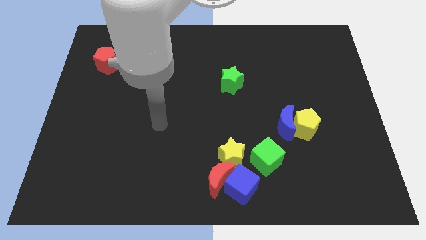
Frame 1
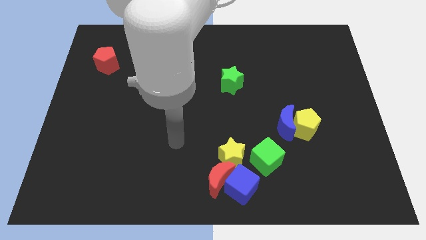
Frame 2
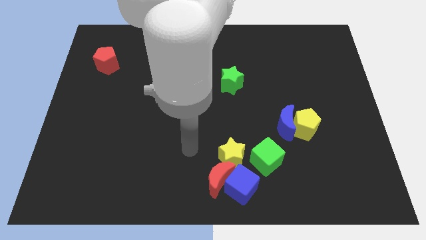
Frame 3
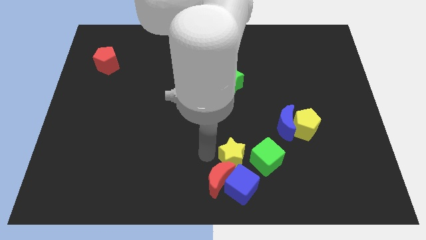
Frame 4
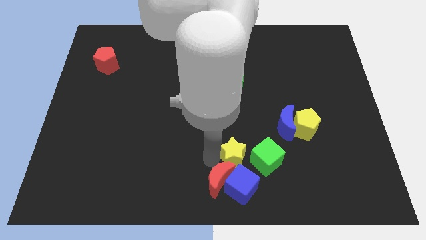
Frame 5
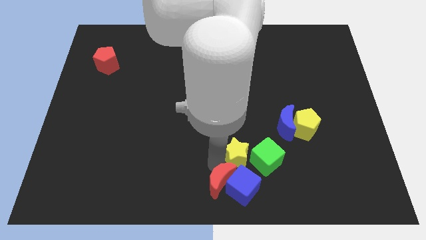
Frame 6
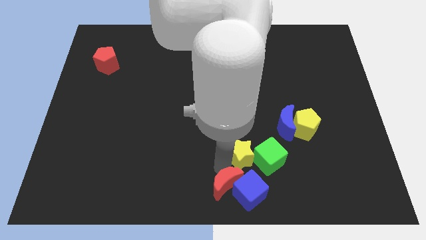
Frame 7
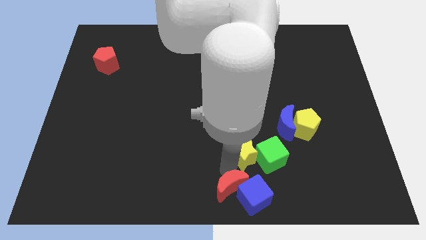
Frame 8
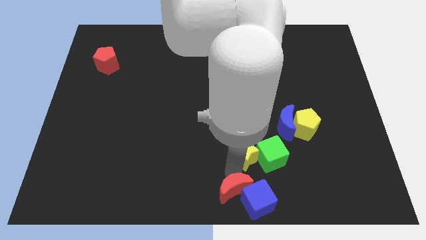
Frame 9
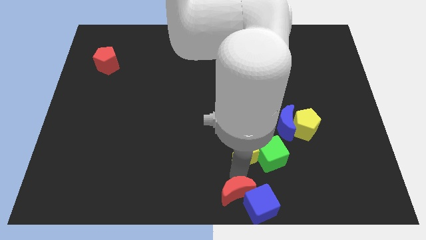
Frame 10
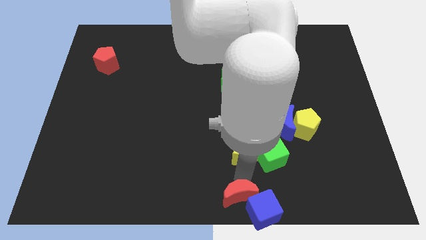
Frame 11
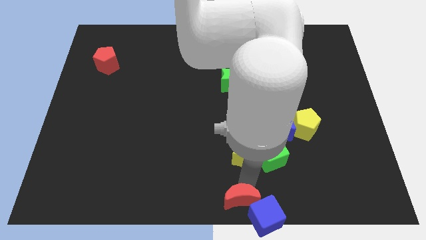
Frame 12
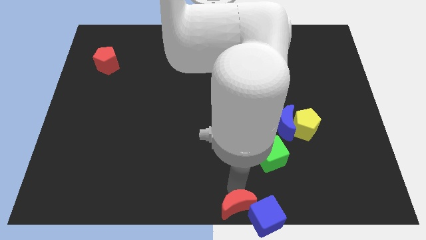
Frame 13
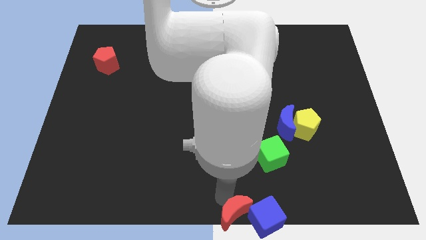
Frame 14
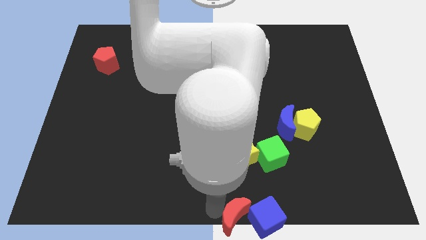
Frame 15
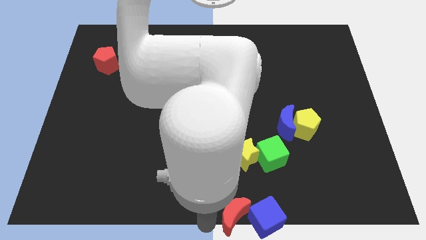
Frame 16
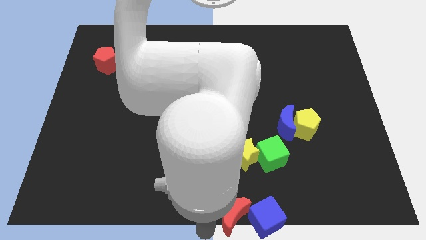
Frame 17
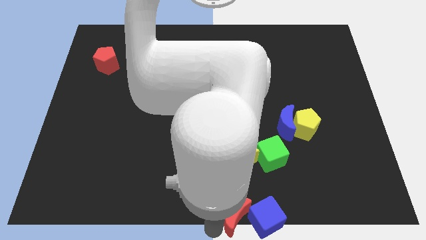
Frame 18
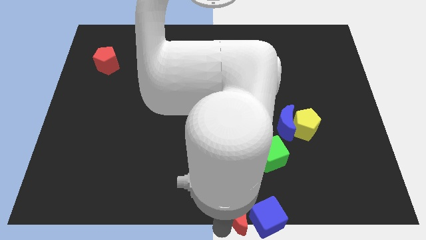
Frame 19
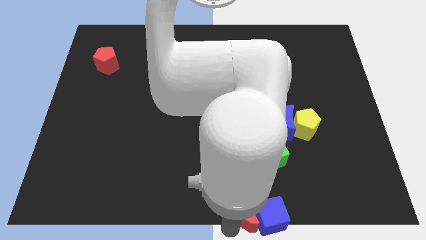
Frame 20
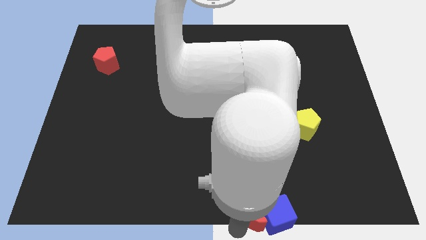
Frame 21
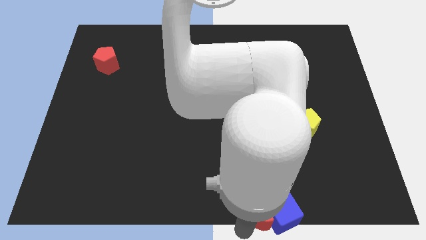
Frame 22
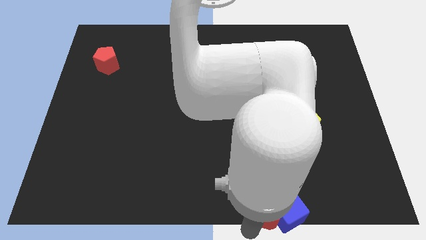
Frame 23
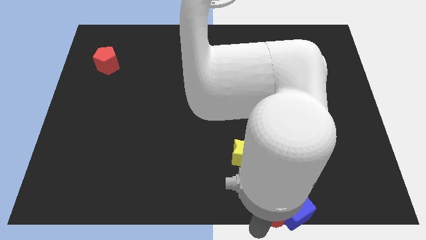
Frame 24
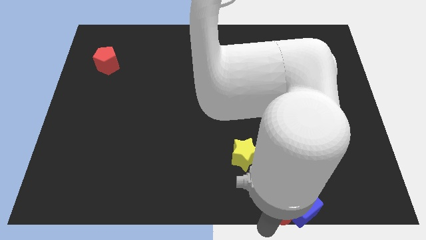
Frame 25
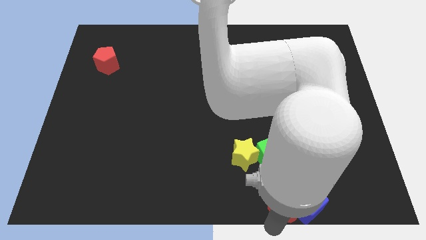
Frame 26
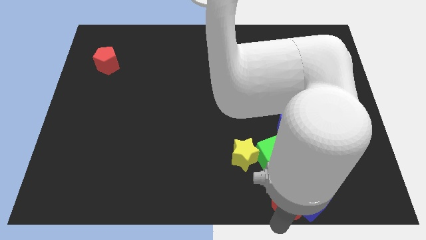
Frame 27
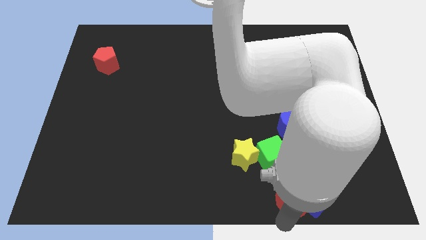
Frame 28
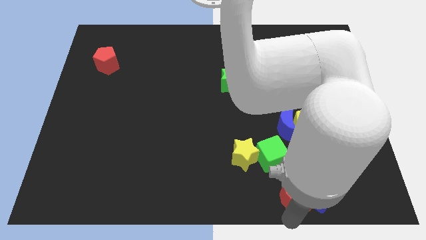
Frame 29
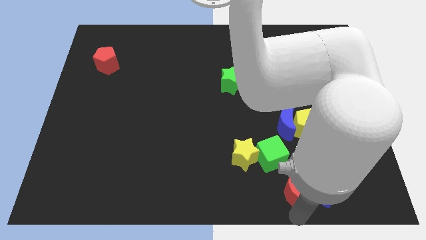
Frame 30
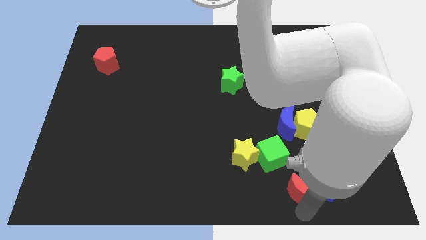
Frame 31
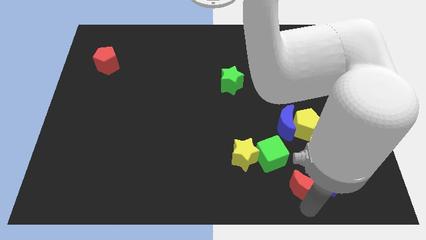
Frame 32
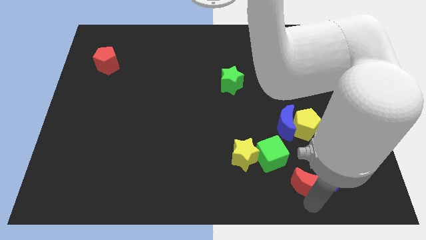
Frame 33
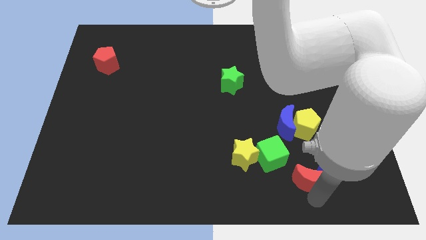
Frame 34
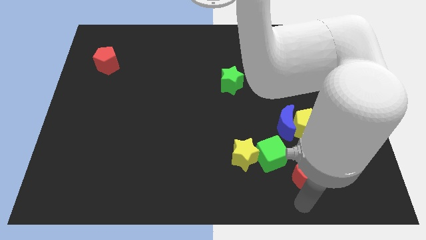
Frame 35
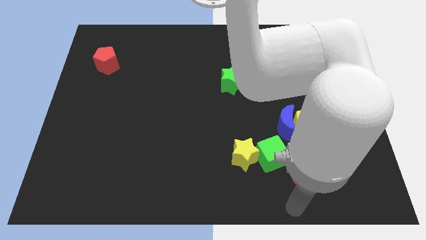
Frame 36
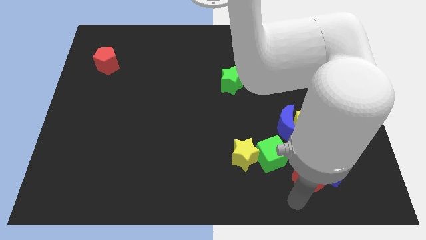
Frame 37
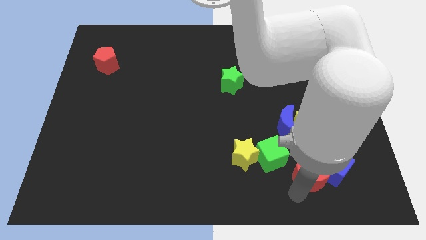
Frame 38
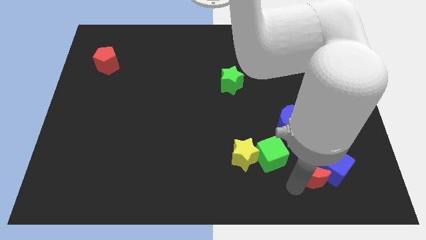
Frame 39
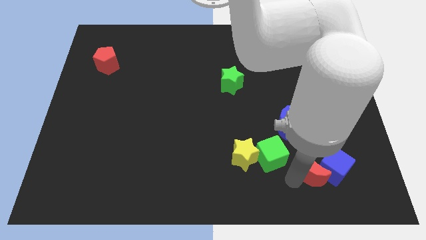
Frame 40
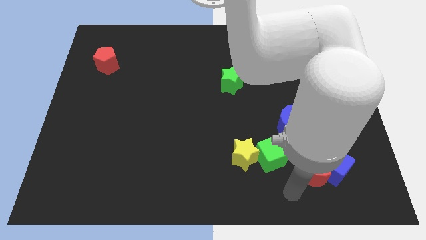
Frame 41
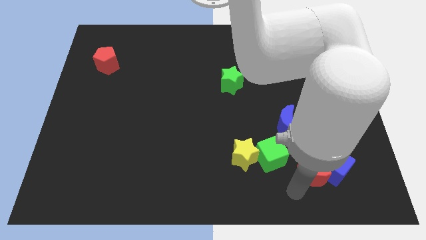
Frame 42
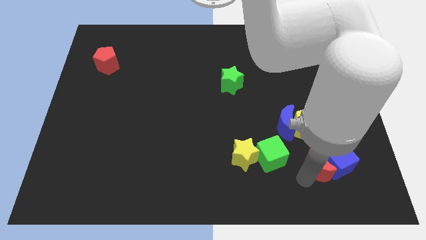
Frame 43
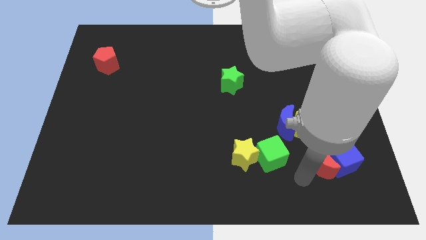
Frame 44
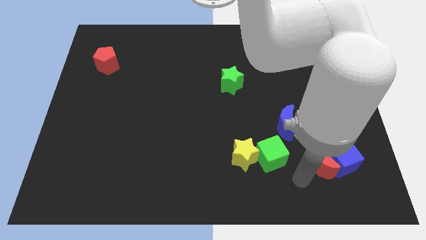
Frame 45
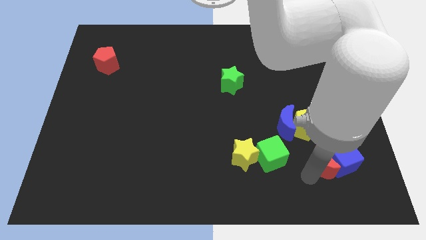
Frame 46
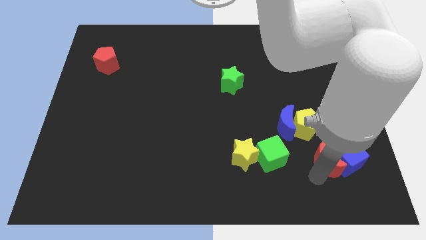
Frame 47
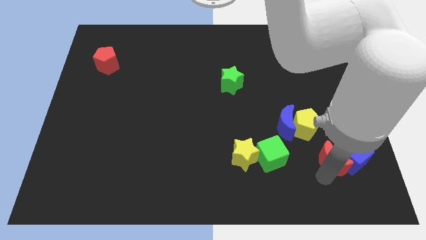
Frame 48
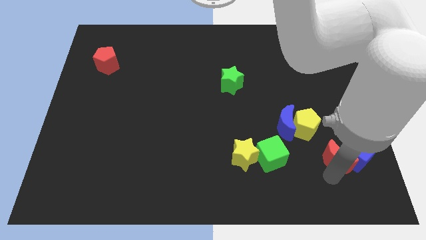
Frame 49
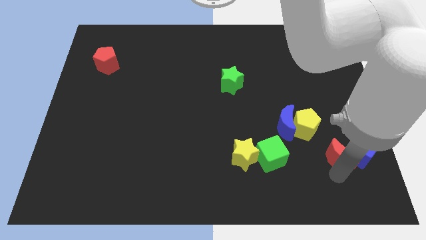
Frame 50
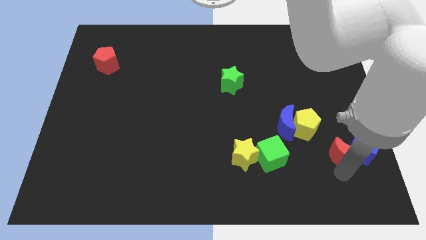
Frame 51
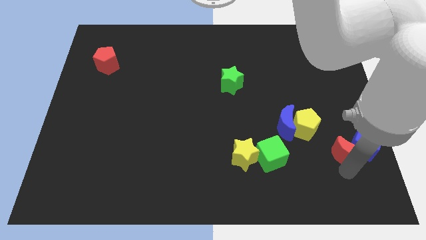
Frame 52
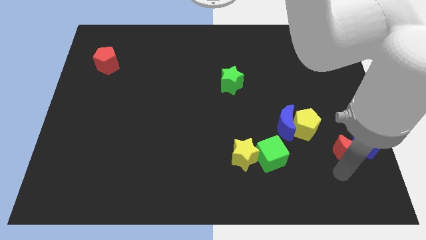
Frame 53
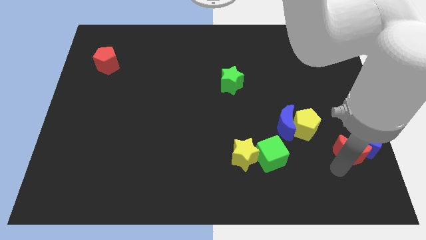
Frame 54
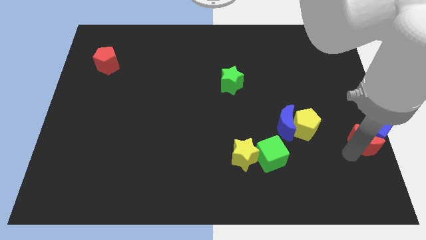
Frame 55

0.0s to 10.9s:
put the red moon to the right side

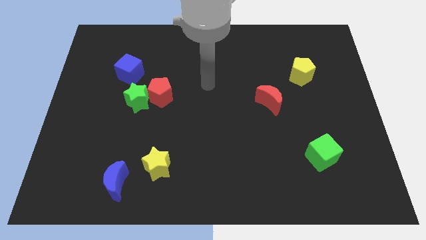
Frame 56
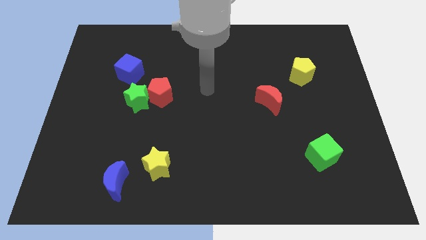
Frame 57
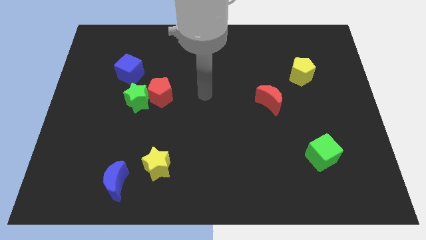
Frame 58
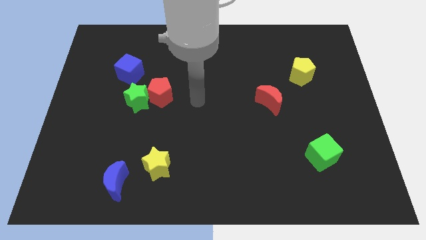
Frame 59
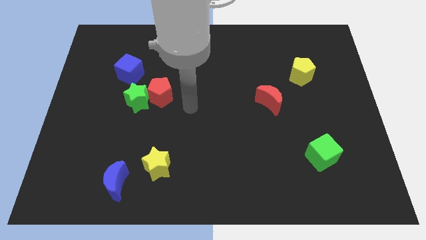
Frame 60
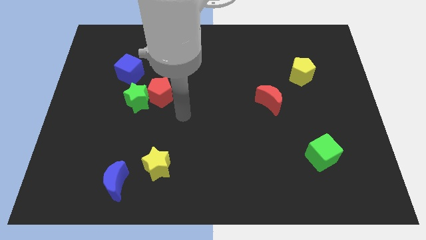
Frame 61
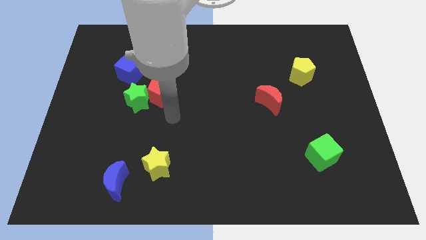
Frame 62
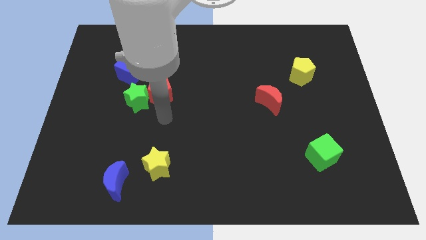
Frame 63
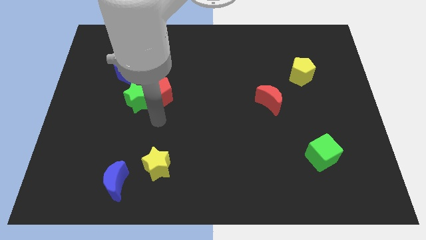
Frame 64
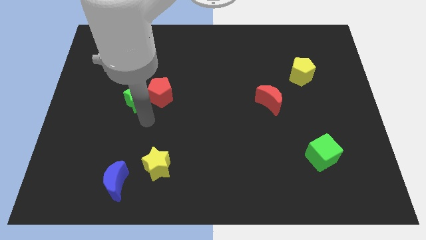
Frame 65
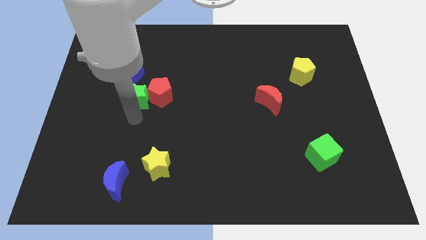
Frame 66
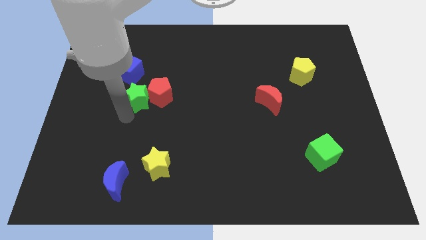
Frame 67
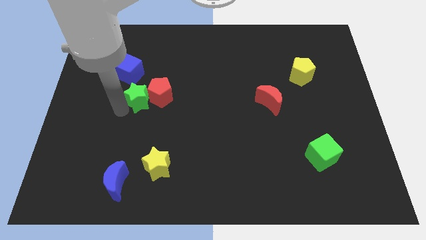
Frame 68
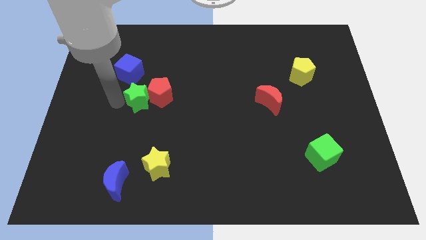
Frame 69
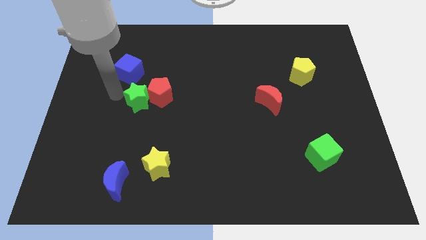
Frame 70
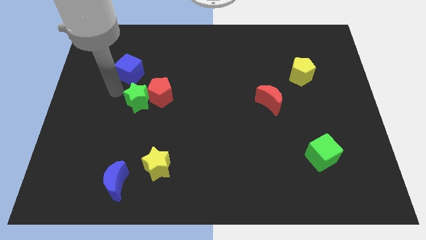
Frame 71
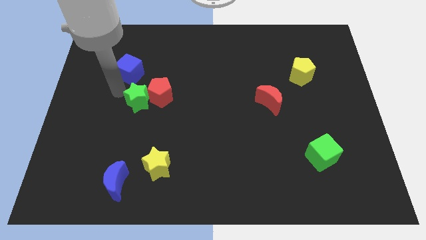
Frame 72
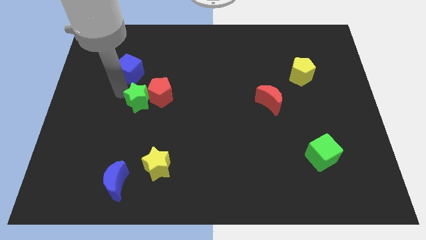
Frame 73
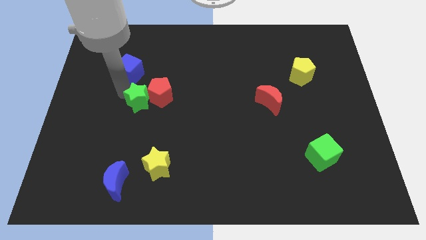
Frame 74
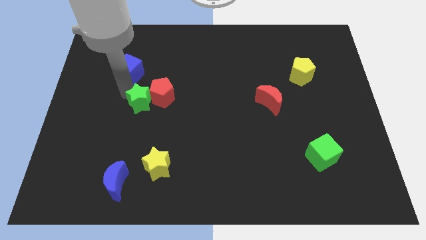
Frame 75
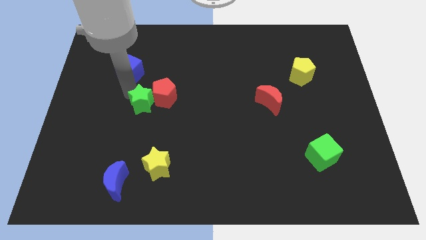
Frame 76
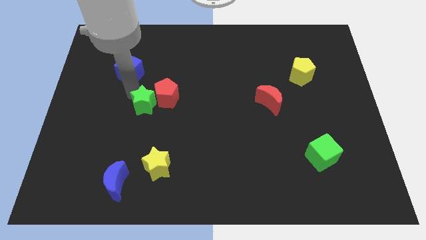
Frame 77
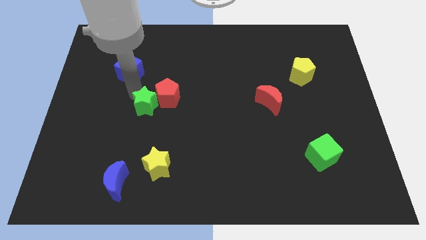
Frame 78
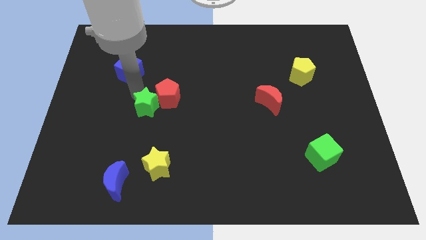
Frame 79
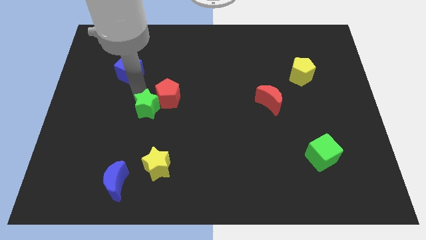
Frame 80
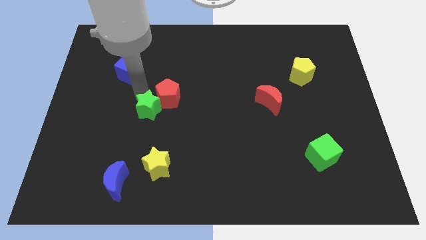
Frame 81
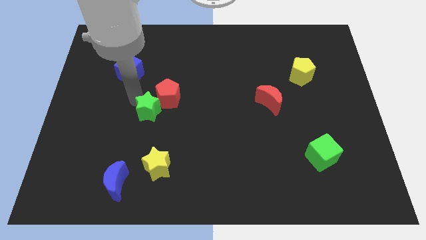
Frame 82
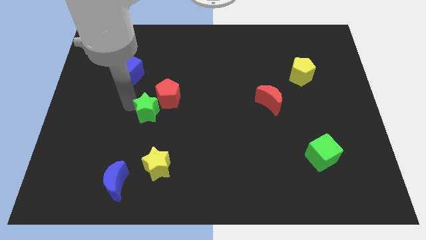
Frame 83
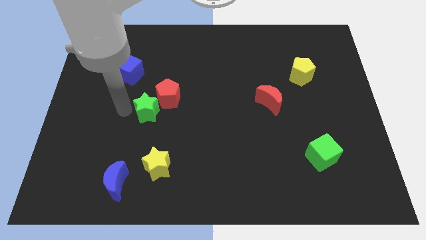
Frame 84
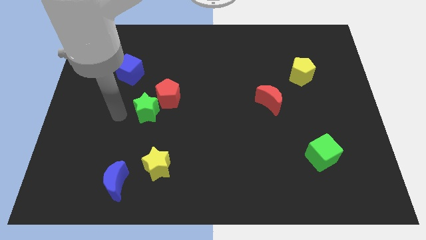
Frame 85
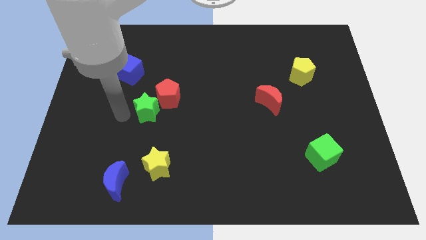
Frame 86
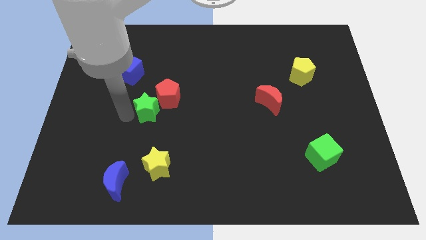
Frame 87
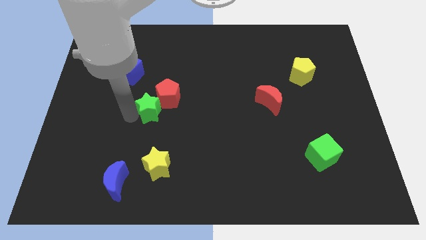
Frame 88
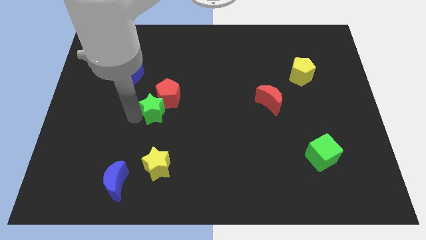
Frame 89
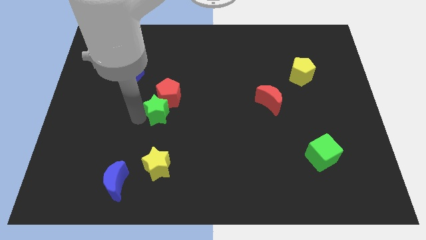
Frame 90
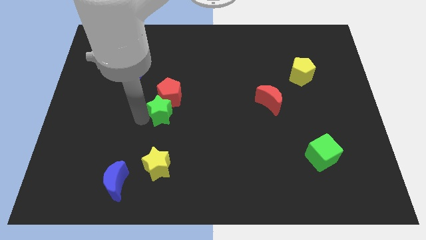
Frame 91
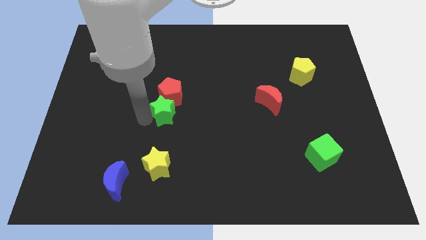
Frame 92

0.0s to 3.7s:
slide the green star to the middle of the board
